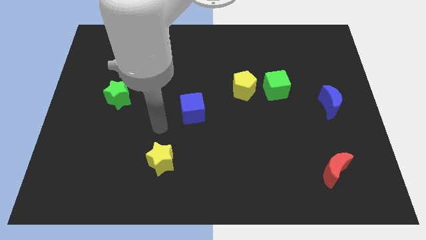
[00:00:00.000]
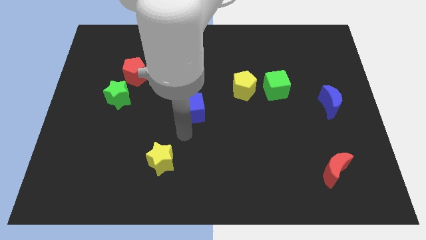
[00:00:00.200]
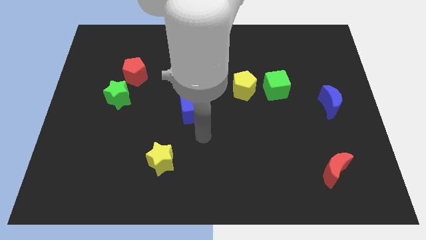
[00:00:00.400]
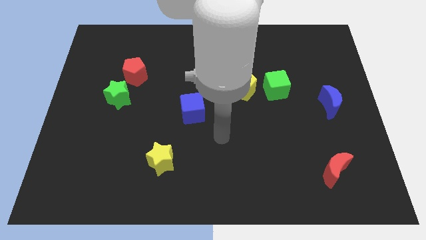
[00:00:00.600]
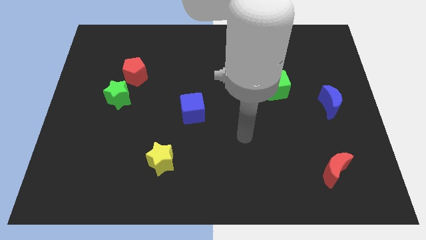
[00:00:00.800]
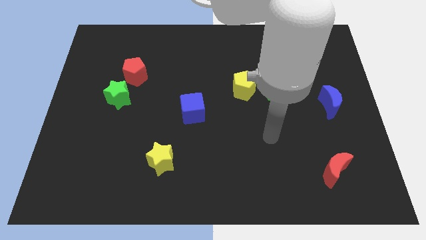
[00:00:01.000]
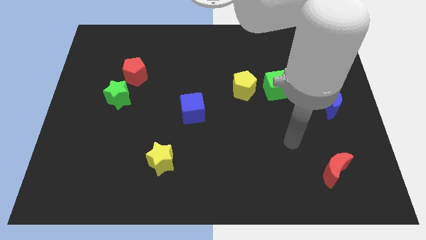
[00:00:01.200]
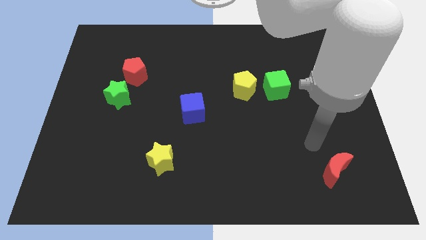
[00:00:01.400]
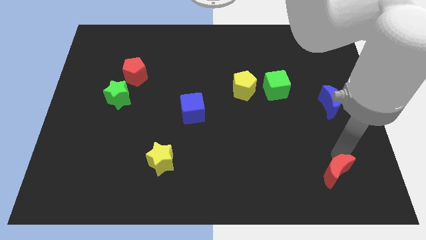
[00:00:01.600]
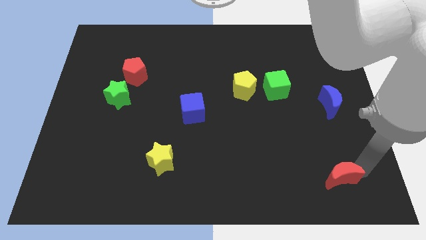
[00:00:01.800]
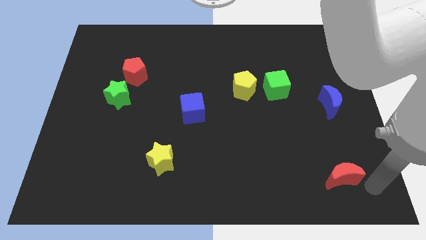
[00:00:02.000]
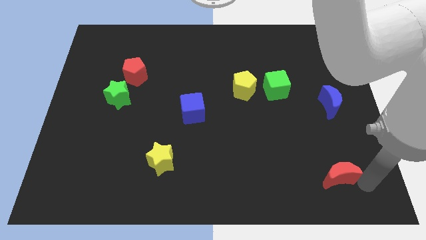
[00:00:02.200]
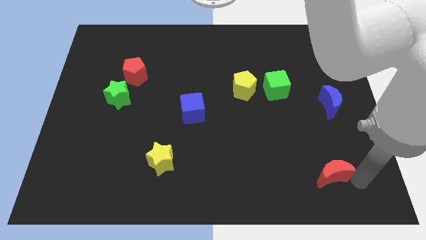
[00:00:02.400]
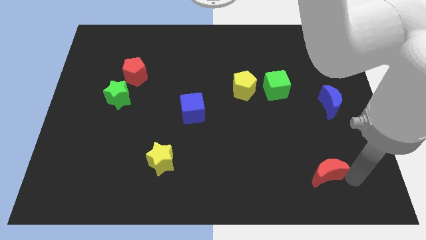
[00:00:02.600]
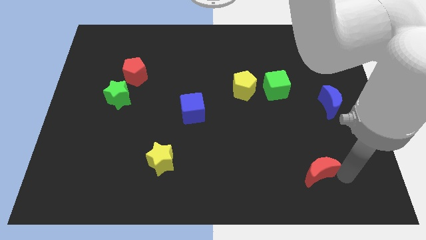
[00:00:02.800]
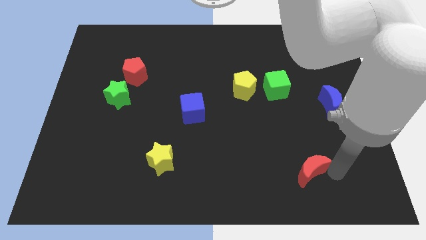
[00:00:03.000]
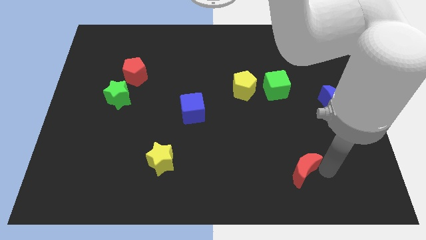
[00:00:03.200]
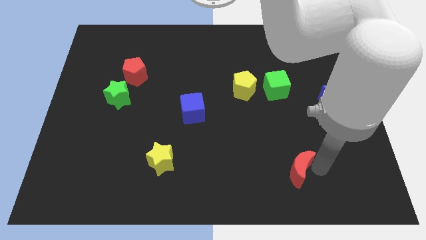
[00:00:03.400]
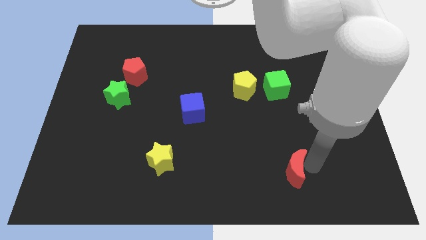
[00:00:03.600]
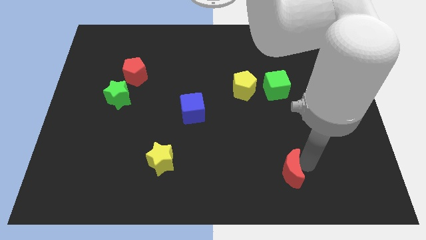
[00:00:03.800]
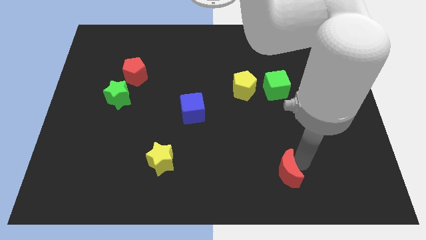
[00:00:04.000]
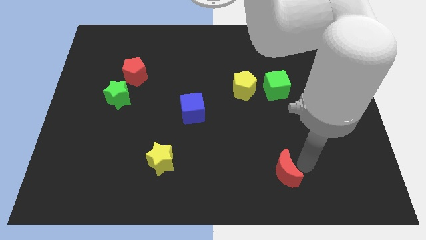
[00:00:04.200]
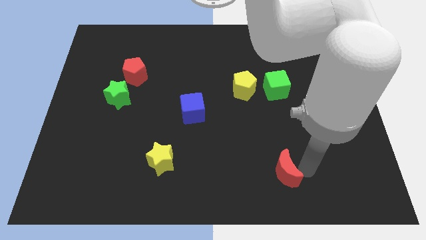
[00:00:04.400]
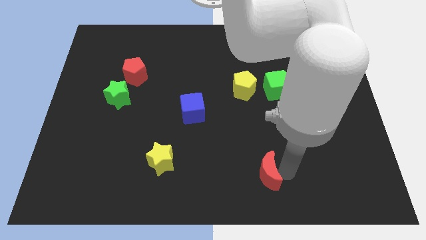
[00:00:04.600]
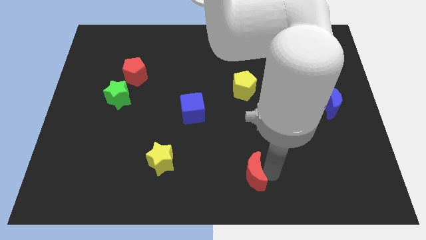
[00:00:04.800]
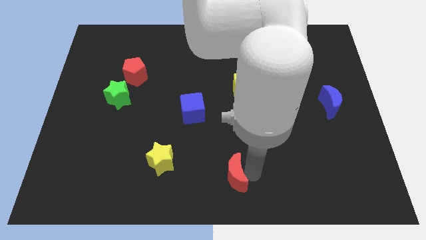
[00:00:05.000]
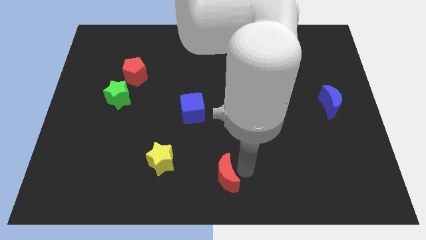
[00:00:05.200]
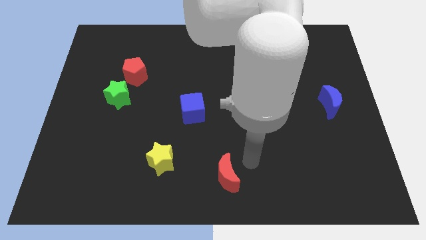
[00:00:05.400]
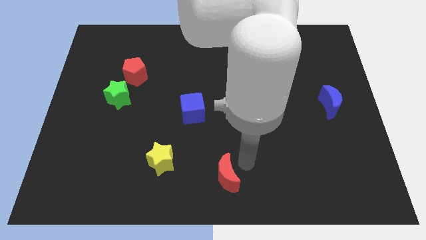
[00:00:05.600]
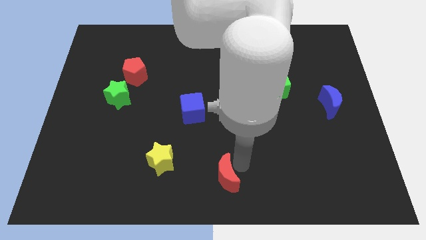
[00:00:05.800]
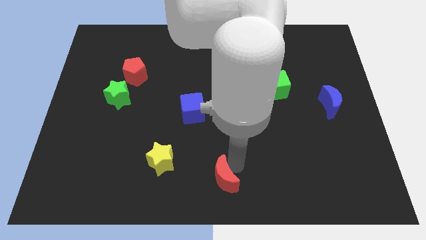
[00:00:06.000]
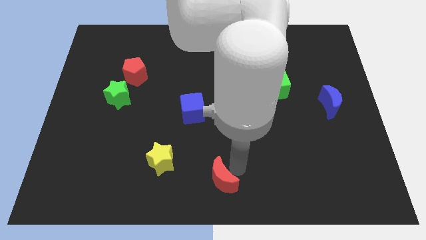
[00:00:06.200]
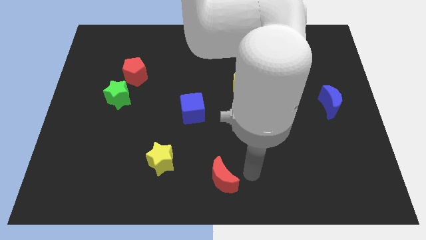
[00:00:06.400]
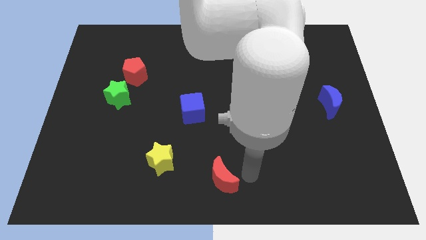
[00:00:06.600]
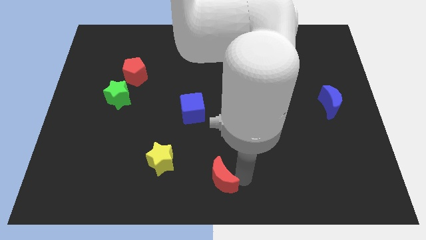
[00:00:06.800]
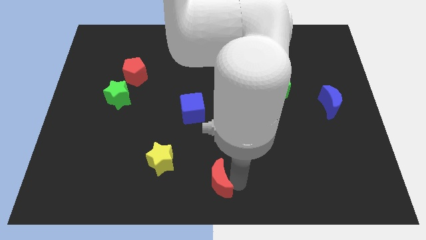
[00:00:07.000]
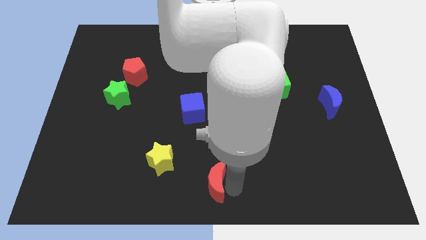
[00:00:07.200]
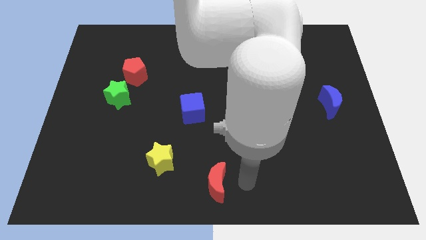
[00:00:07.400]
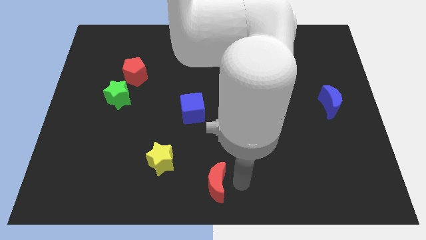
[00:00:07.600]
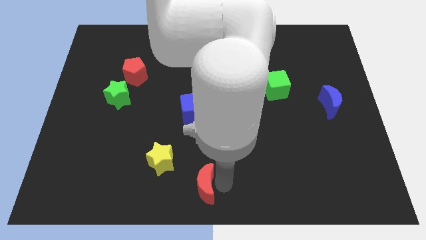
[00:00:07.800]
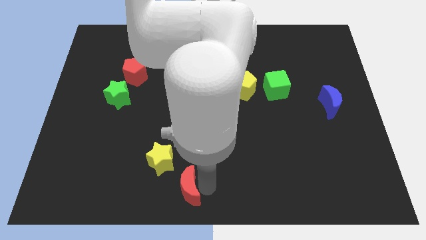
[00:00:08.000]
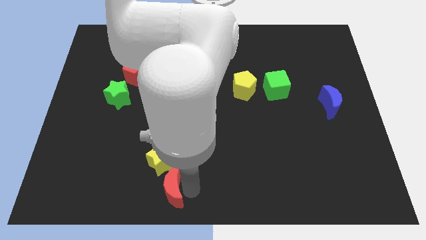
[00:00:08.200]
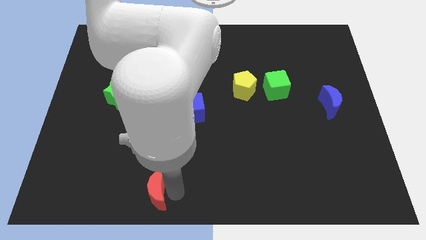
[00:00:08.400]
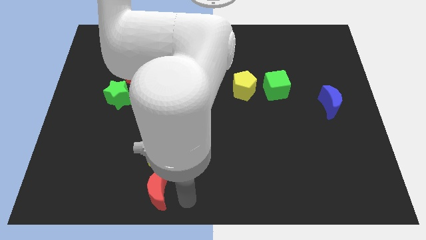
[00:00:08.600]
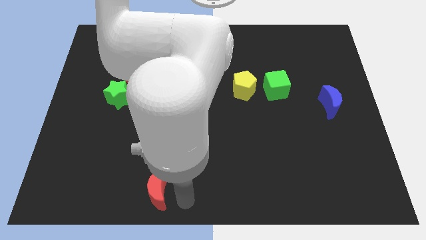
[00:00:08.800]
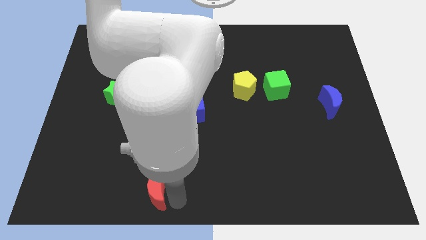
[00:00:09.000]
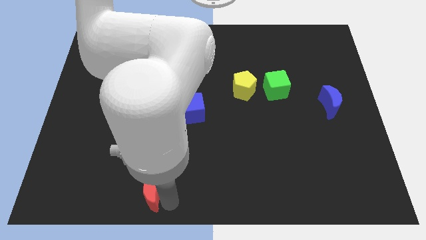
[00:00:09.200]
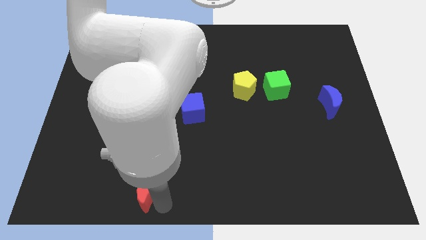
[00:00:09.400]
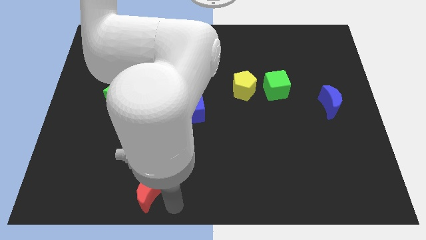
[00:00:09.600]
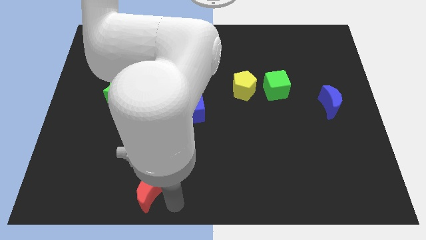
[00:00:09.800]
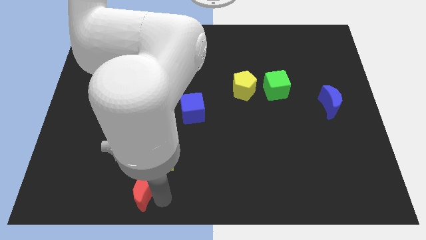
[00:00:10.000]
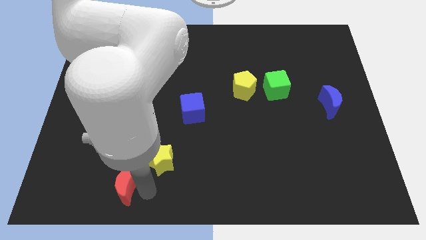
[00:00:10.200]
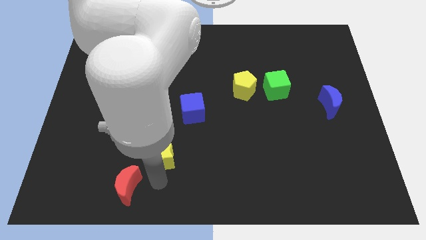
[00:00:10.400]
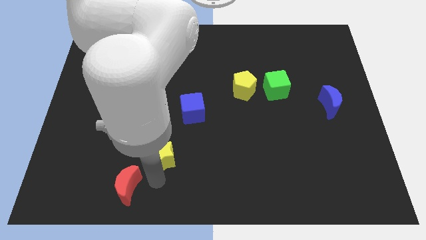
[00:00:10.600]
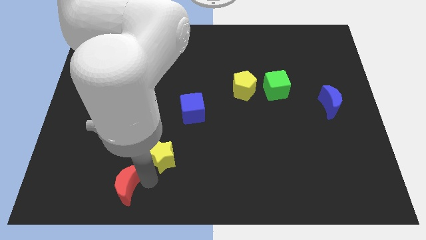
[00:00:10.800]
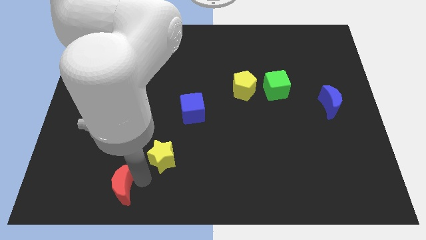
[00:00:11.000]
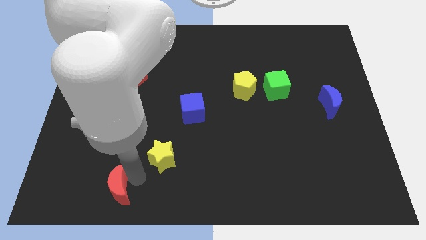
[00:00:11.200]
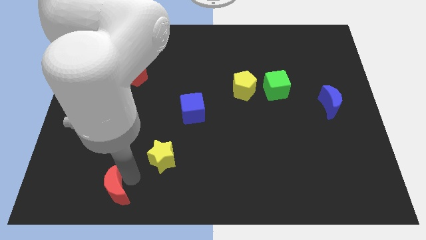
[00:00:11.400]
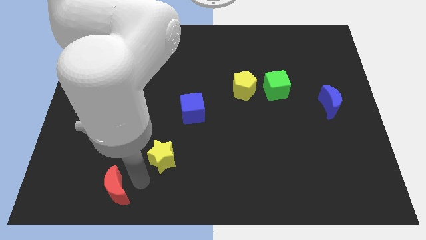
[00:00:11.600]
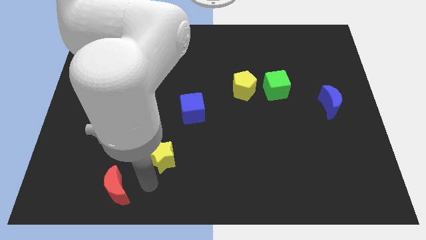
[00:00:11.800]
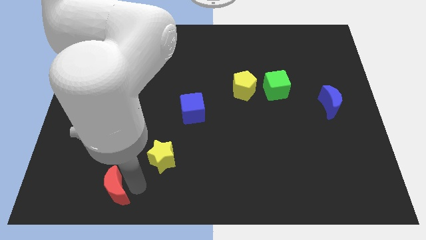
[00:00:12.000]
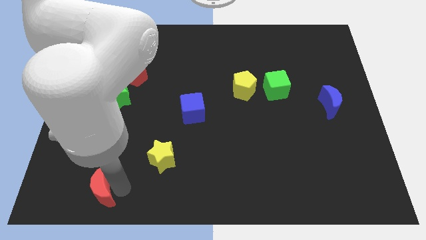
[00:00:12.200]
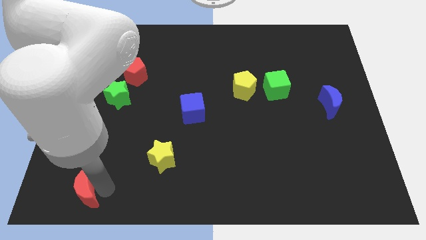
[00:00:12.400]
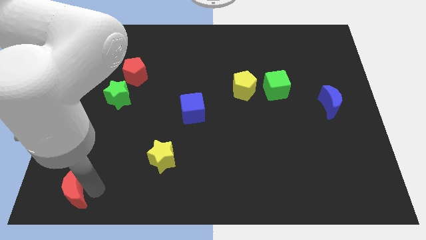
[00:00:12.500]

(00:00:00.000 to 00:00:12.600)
push the red moon to the lower left corner

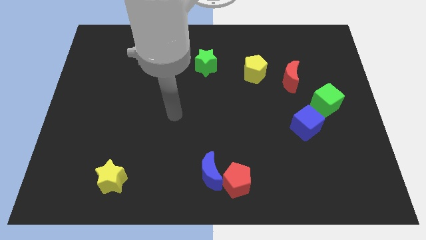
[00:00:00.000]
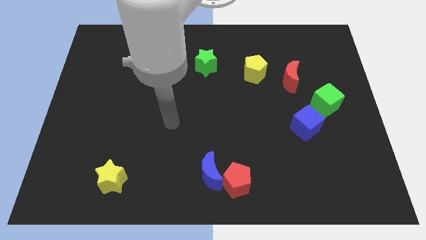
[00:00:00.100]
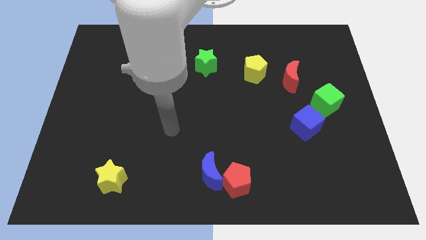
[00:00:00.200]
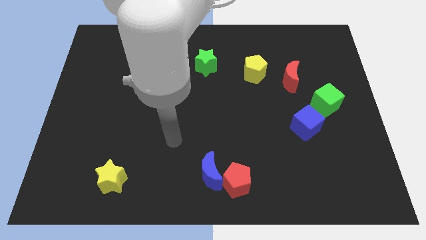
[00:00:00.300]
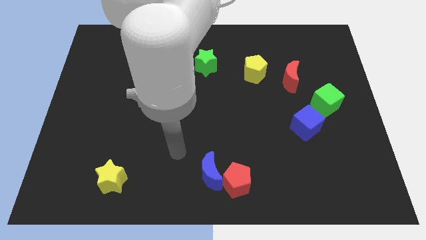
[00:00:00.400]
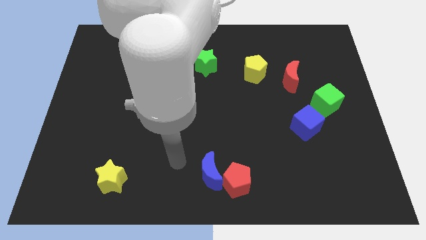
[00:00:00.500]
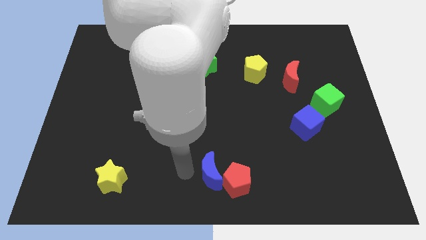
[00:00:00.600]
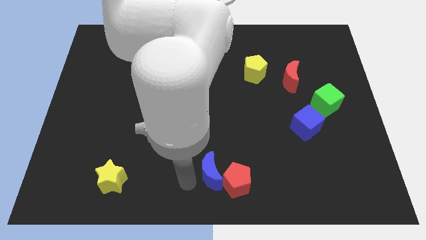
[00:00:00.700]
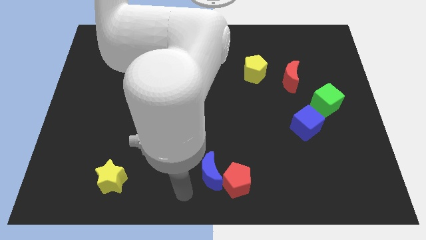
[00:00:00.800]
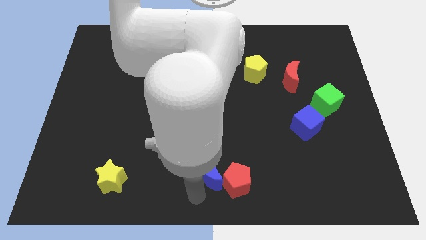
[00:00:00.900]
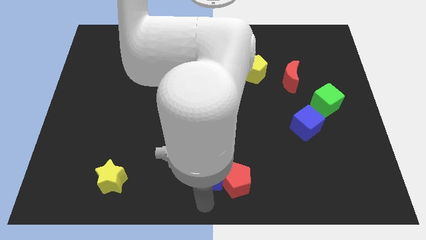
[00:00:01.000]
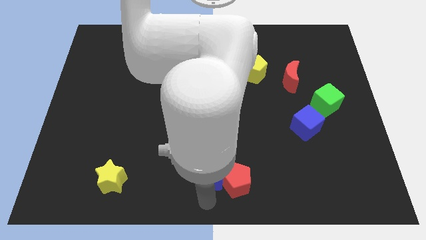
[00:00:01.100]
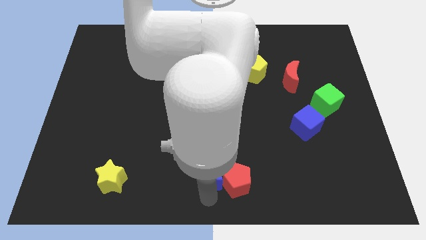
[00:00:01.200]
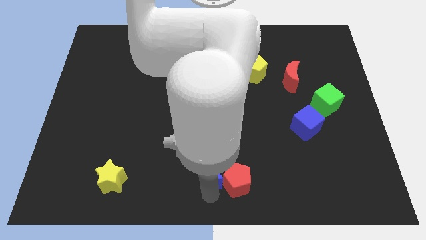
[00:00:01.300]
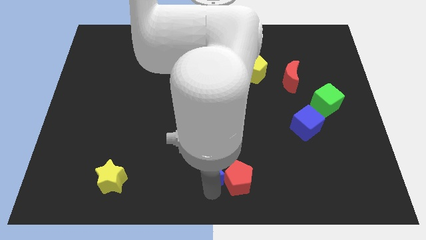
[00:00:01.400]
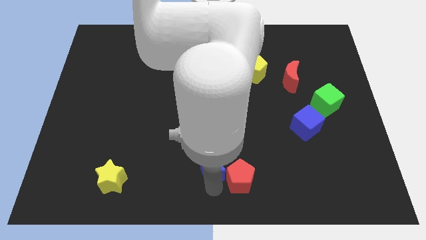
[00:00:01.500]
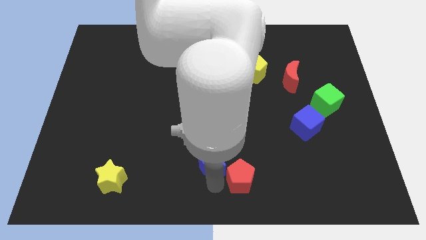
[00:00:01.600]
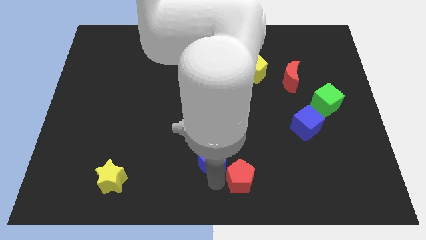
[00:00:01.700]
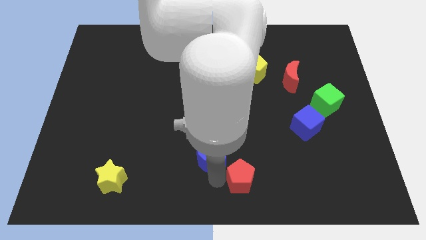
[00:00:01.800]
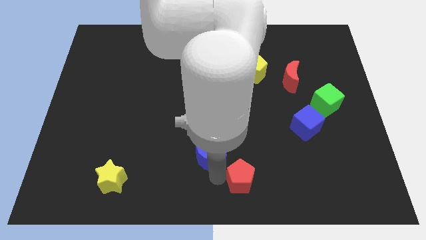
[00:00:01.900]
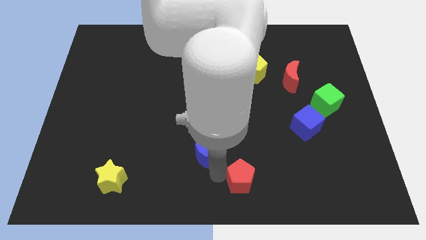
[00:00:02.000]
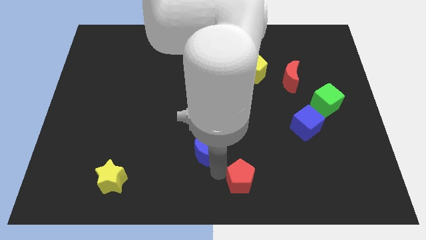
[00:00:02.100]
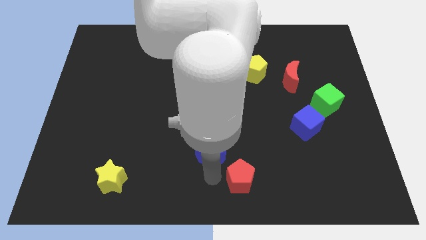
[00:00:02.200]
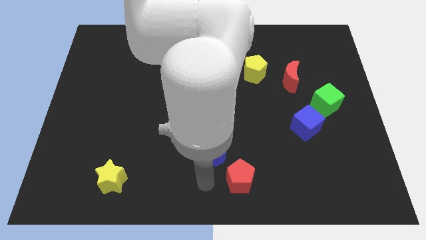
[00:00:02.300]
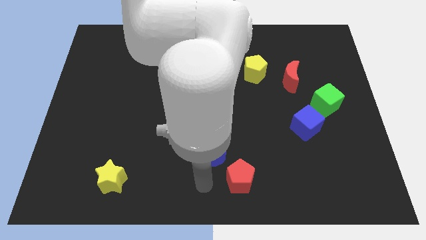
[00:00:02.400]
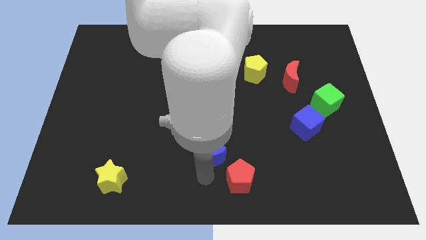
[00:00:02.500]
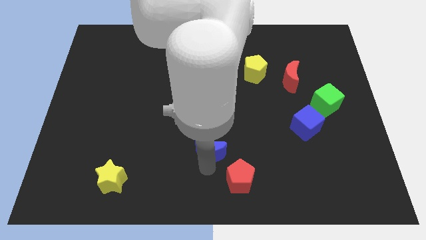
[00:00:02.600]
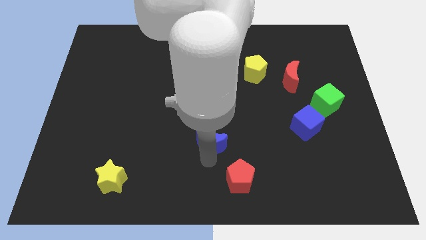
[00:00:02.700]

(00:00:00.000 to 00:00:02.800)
put the blue moon to the center of the board
